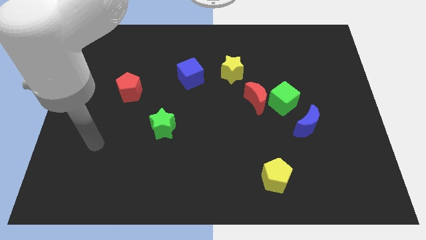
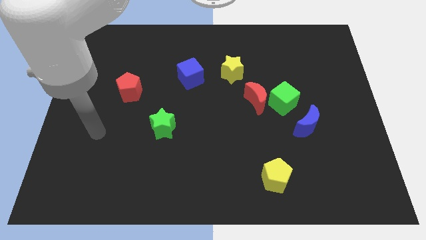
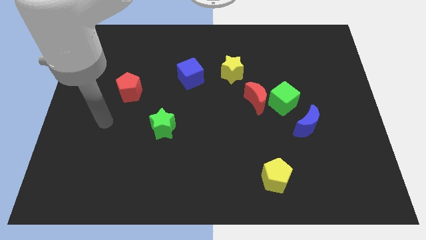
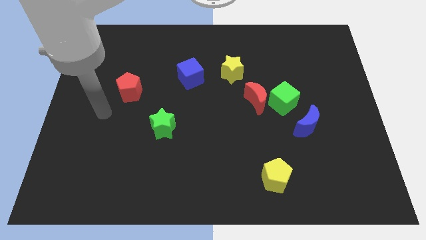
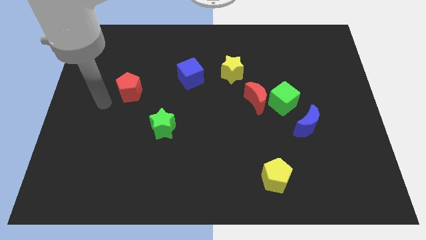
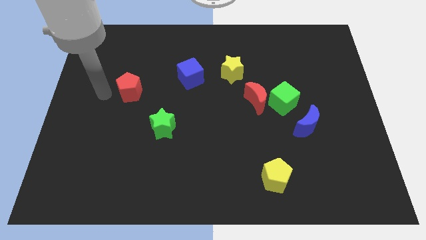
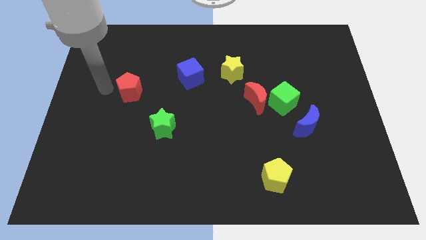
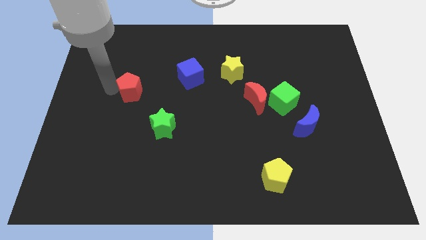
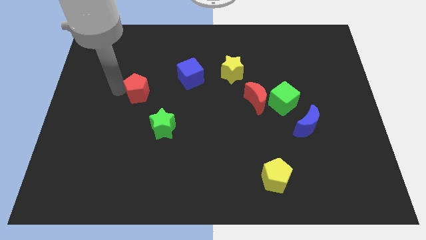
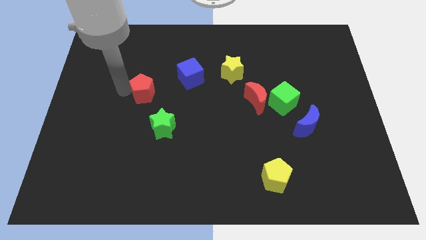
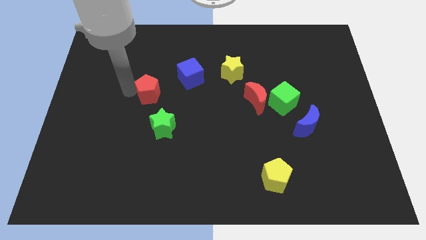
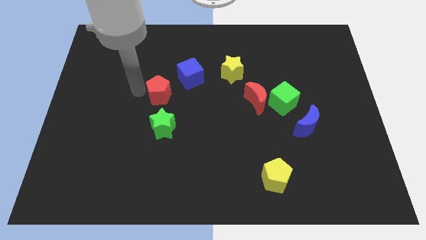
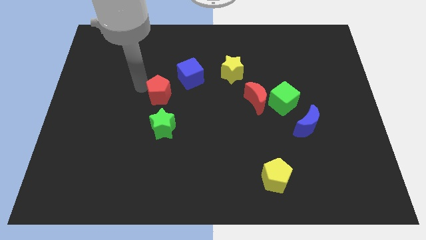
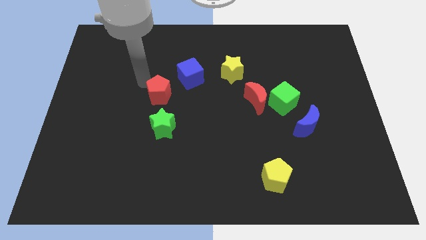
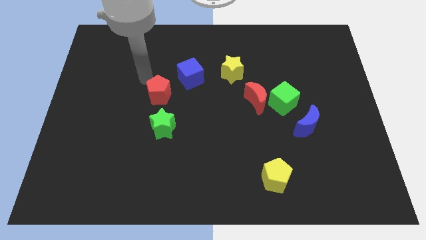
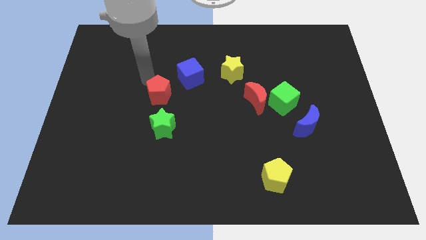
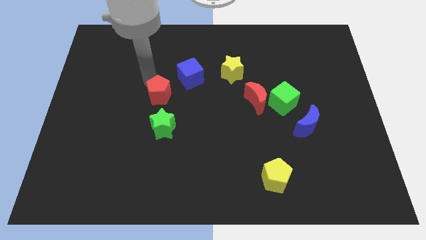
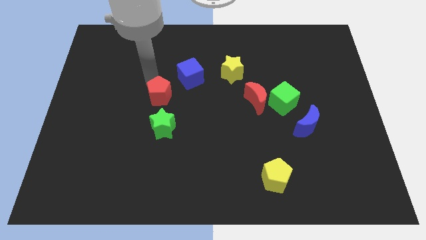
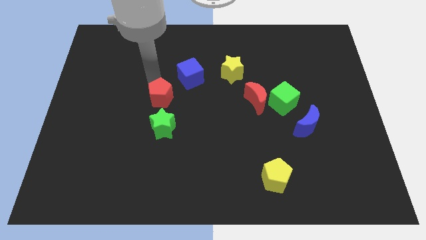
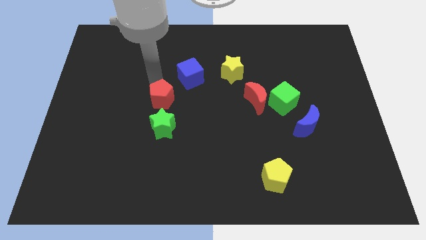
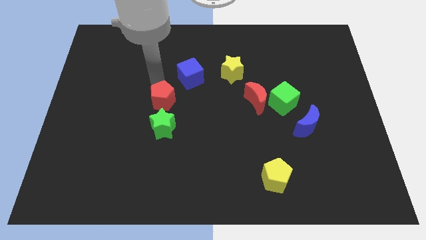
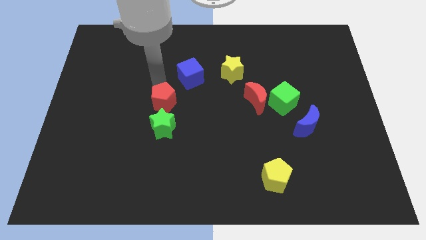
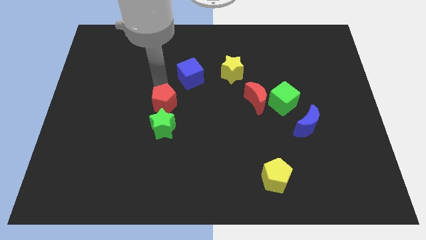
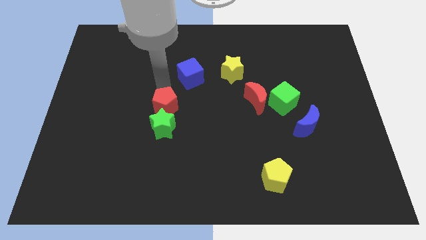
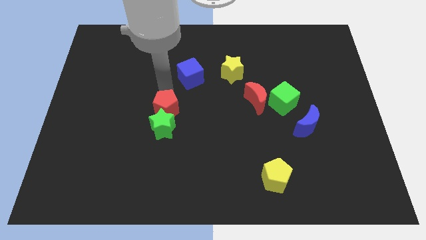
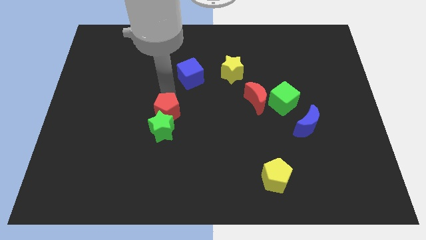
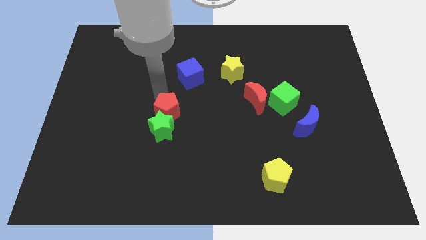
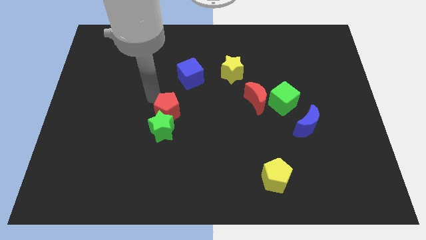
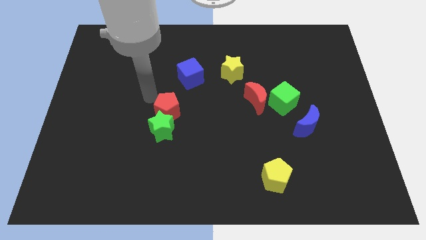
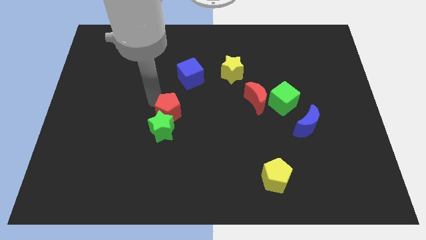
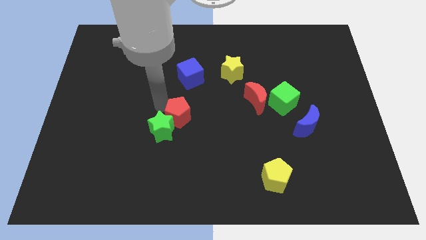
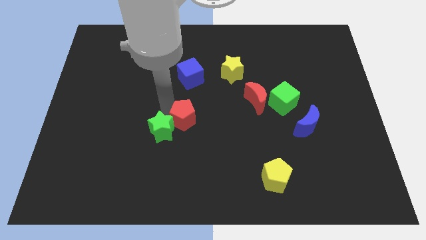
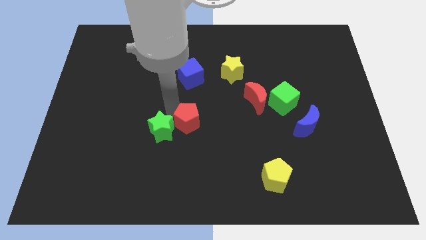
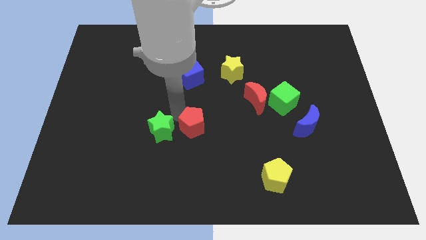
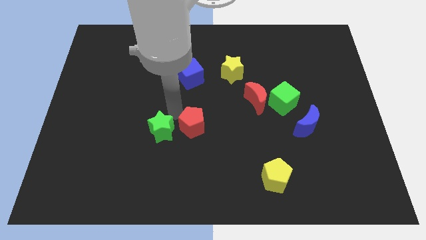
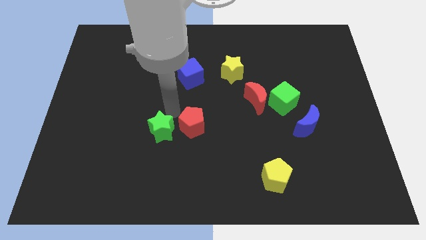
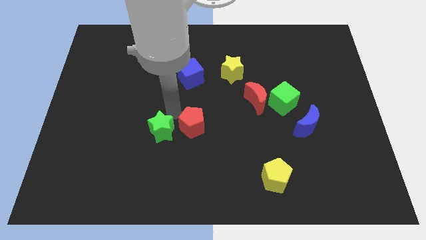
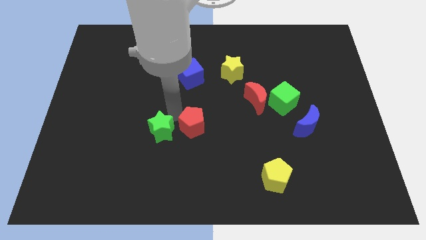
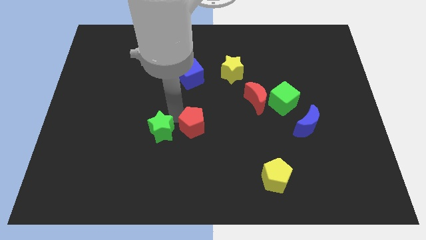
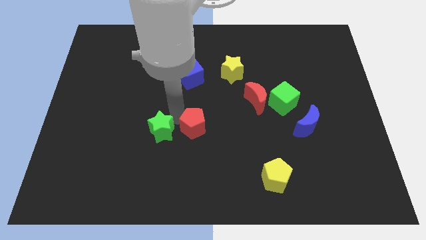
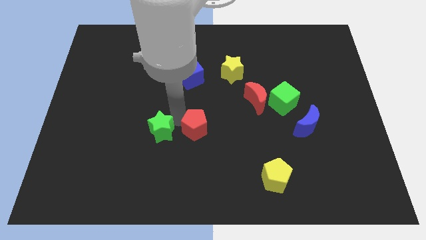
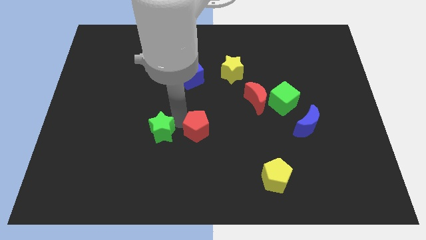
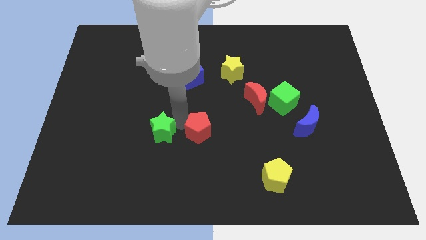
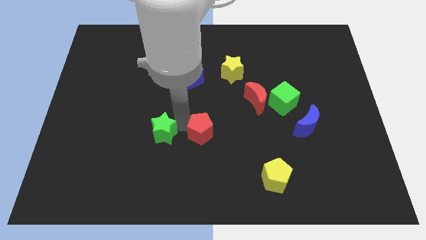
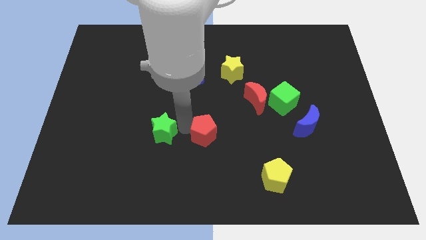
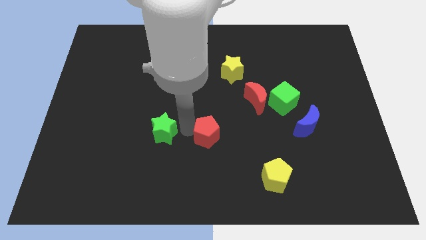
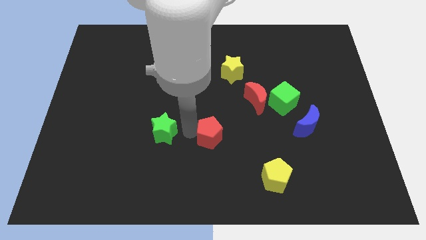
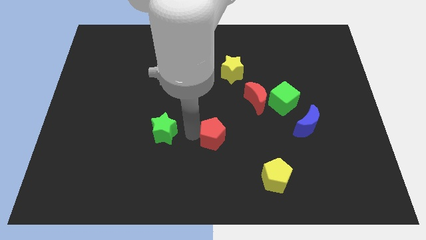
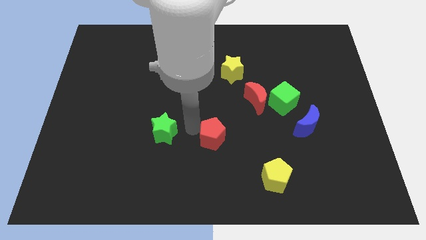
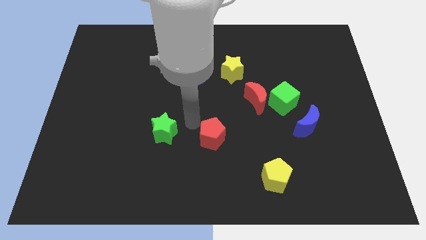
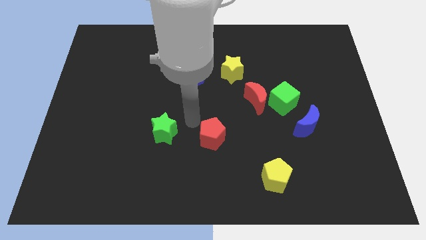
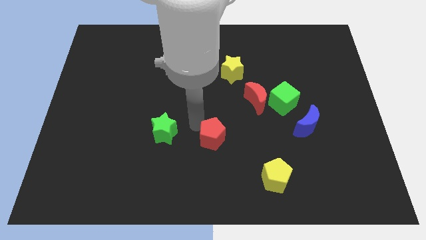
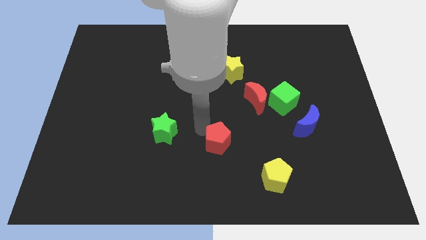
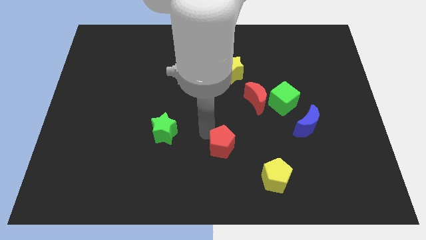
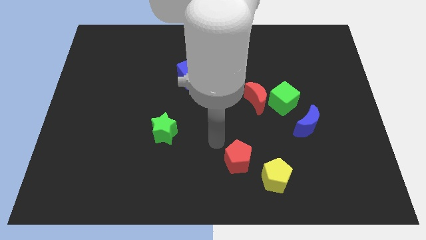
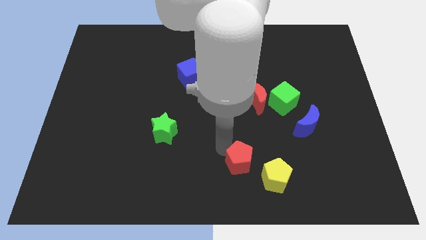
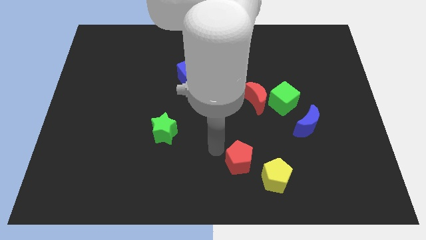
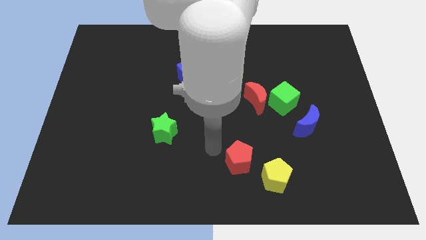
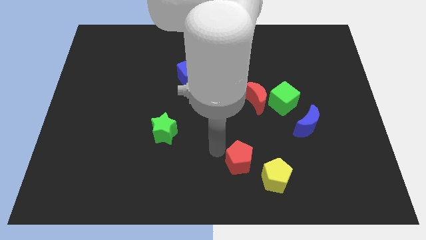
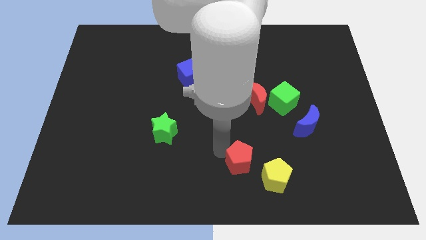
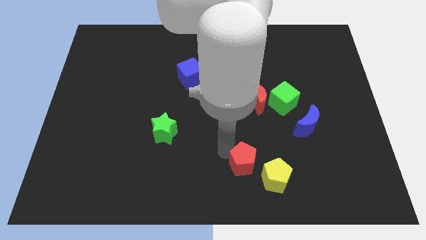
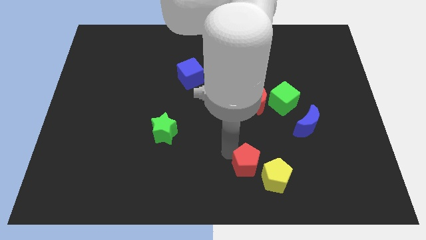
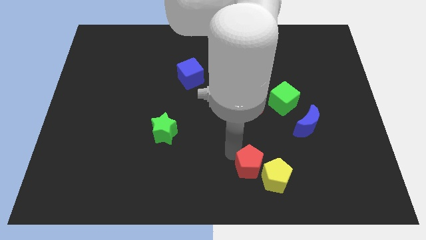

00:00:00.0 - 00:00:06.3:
push the red pentagon towards the yellow pentagon

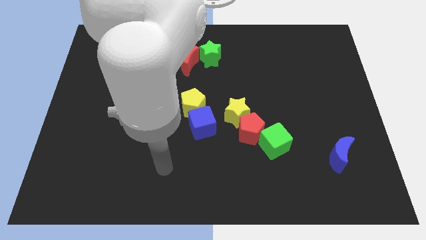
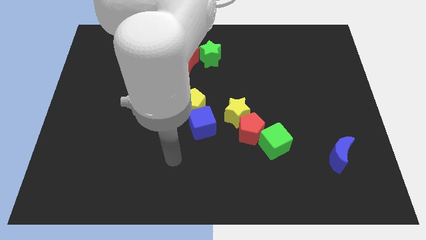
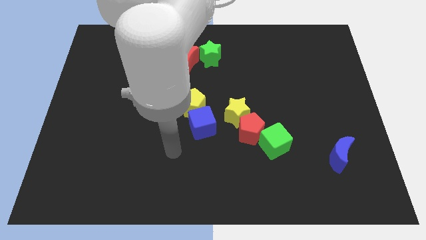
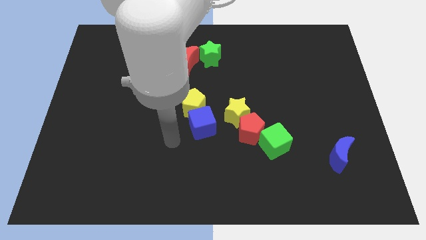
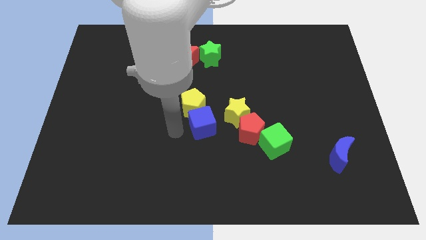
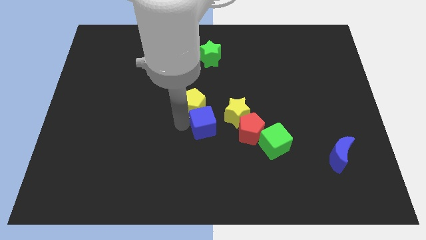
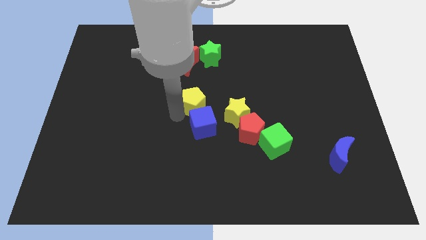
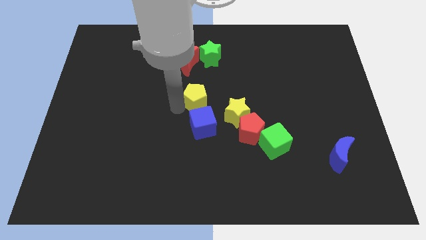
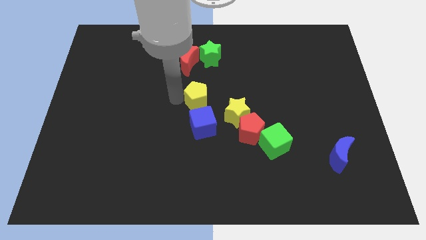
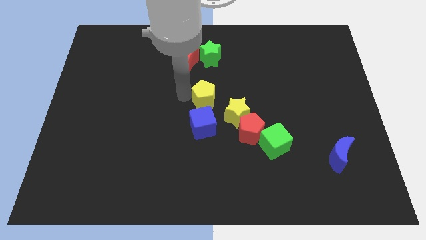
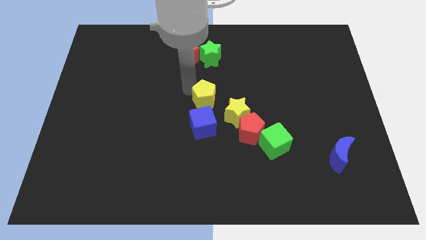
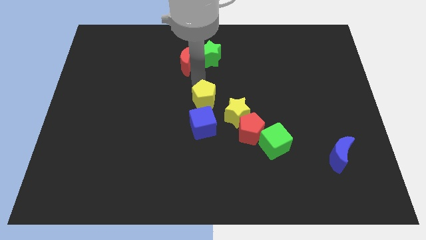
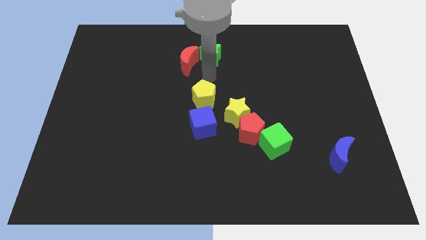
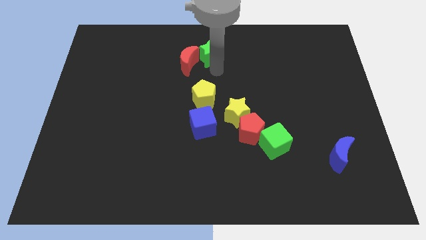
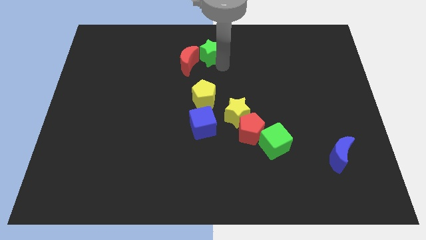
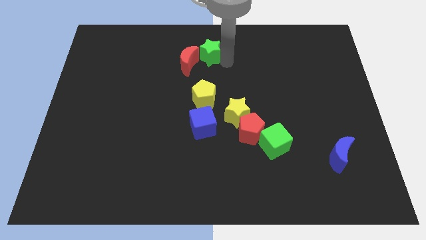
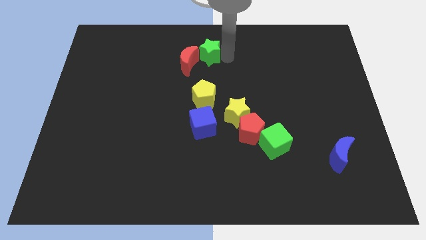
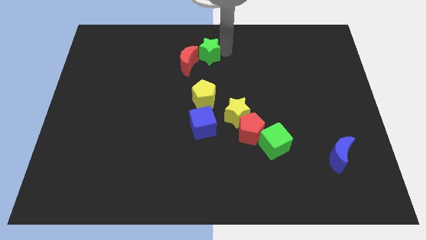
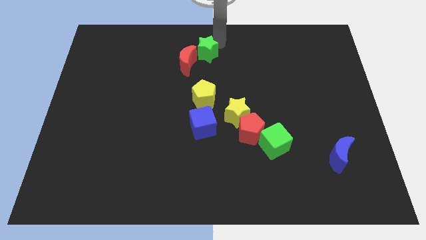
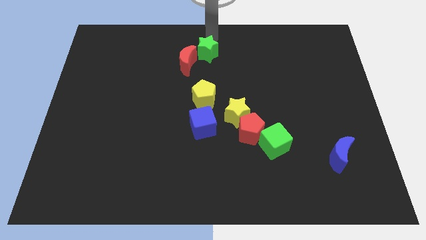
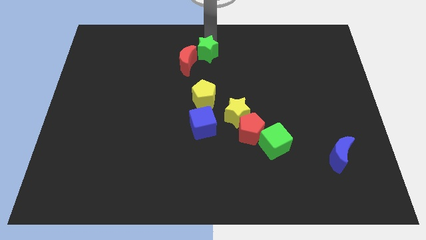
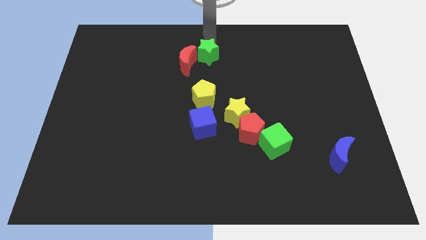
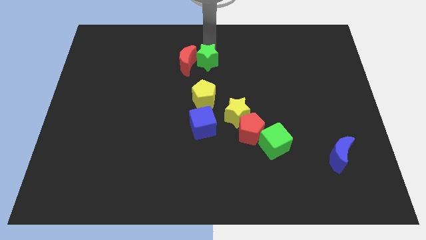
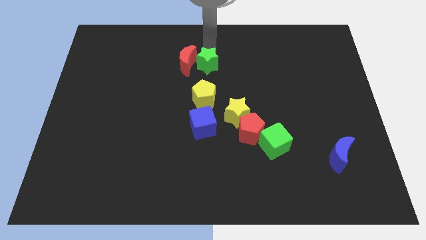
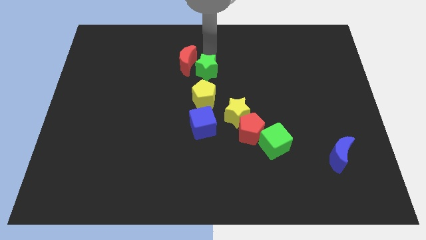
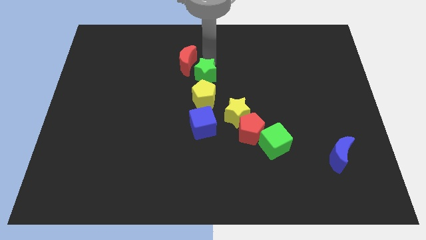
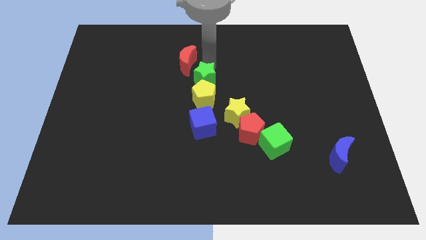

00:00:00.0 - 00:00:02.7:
put the green star to the yellow pentagon
